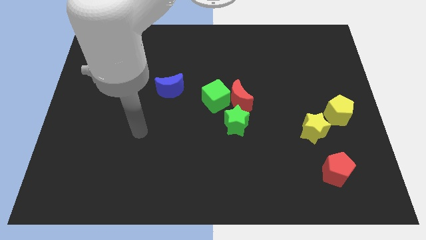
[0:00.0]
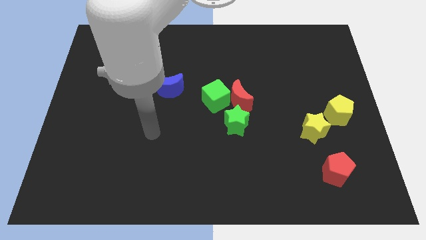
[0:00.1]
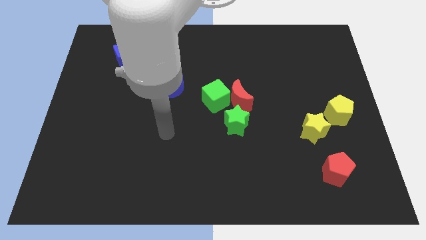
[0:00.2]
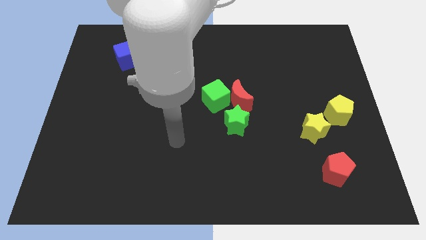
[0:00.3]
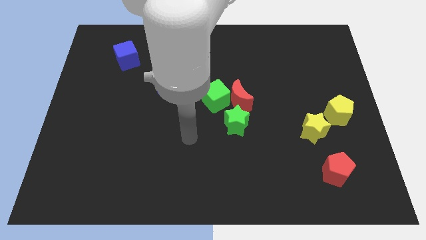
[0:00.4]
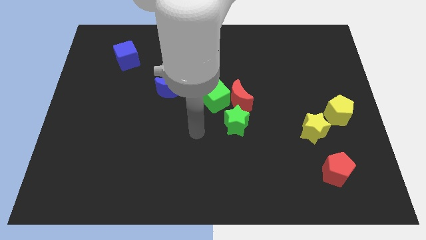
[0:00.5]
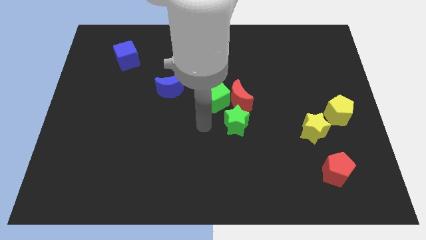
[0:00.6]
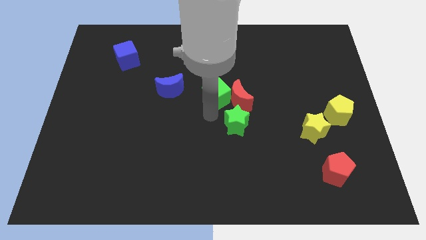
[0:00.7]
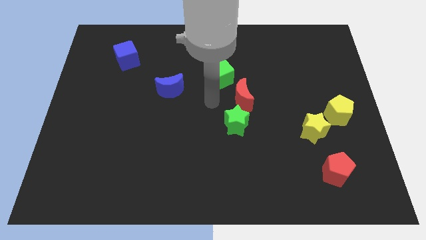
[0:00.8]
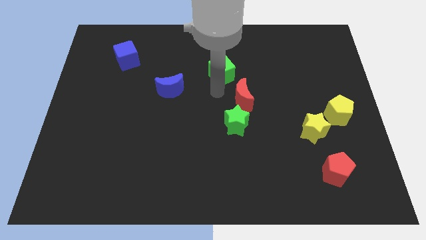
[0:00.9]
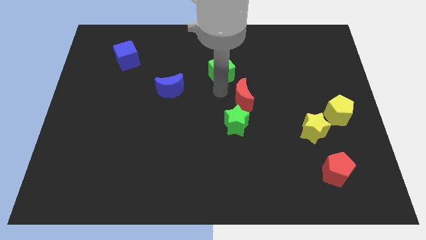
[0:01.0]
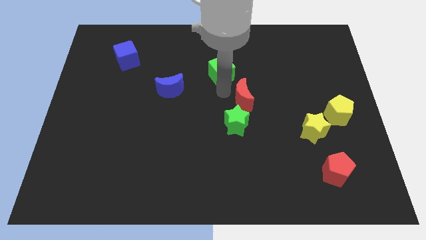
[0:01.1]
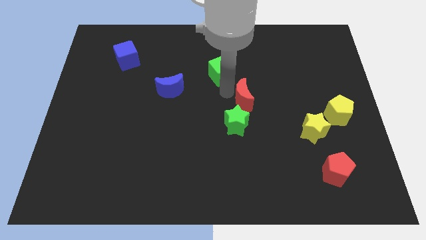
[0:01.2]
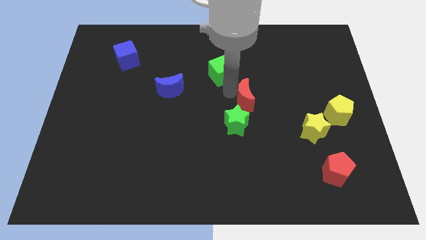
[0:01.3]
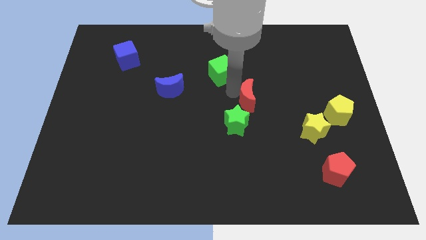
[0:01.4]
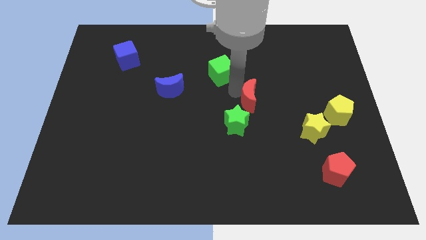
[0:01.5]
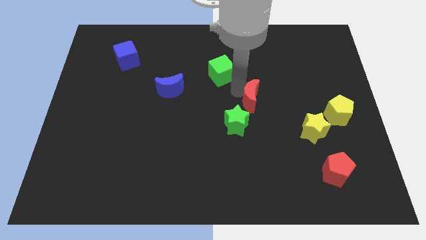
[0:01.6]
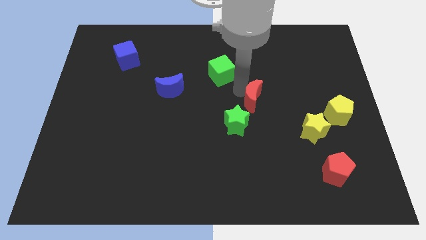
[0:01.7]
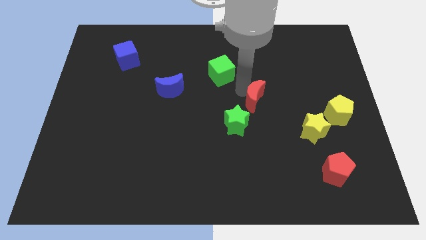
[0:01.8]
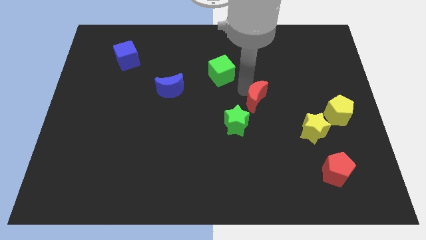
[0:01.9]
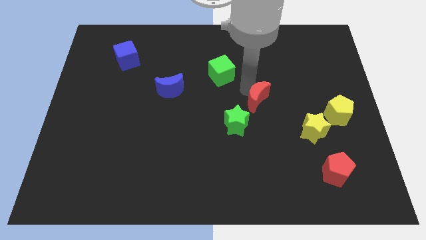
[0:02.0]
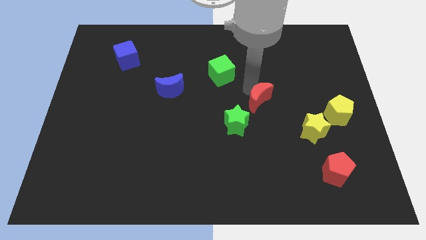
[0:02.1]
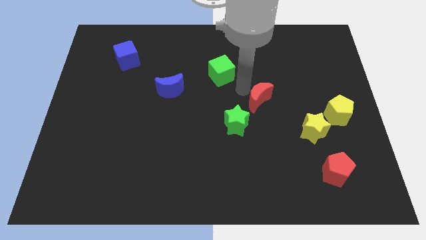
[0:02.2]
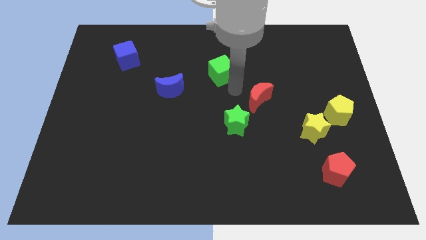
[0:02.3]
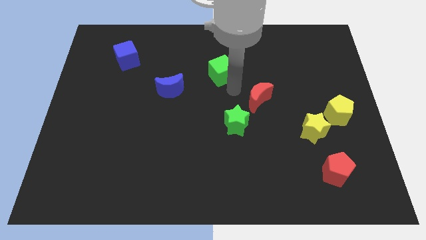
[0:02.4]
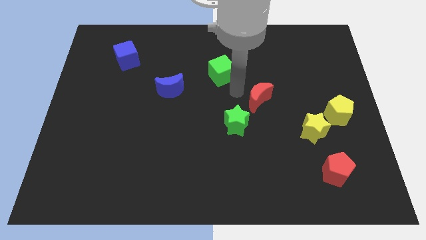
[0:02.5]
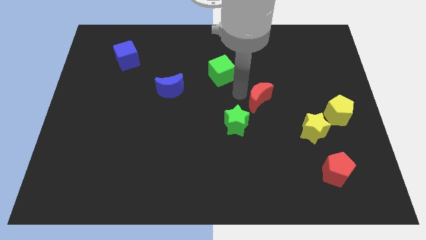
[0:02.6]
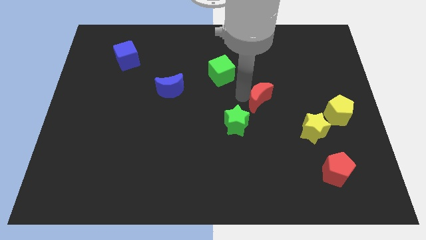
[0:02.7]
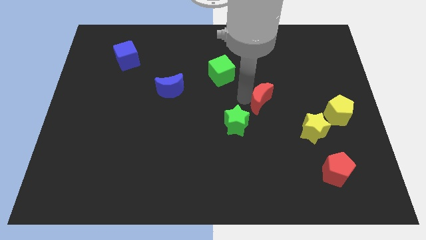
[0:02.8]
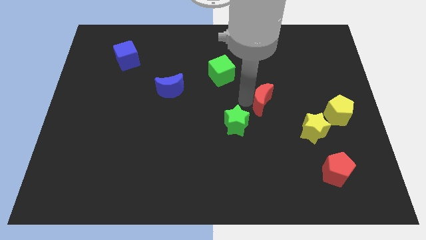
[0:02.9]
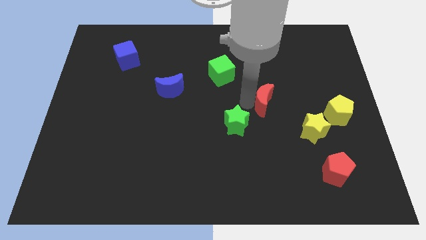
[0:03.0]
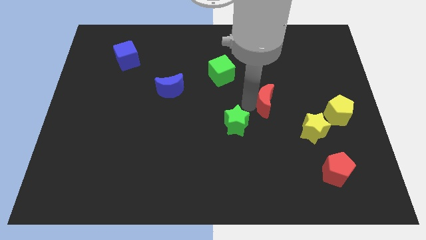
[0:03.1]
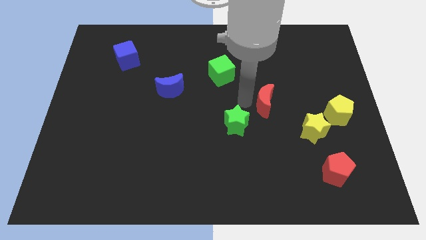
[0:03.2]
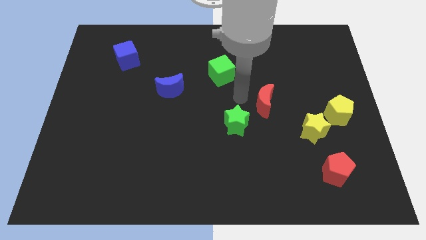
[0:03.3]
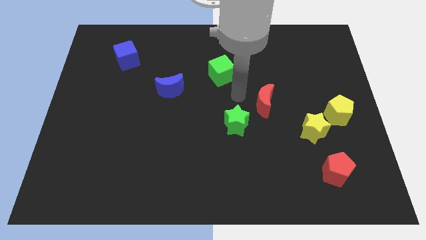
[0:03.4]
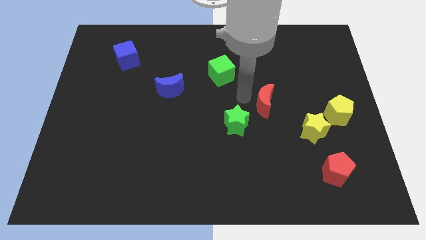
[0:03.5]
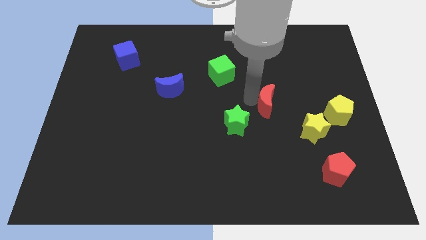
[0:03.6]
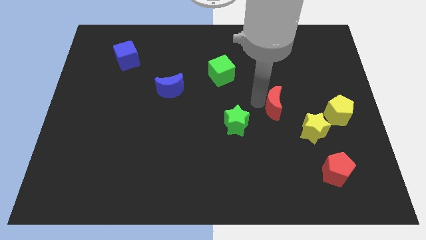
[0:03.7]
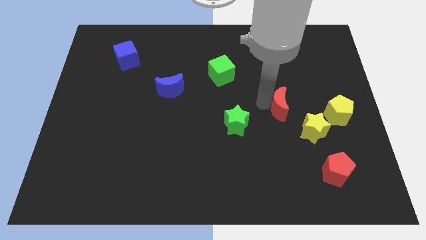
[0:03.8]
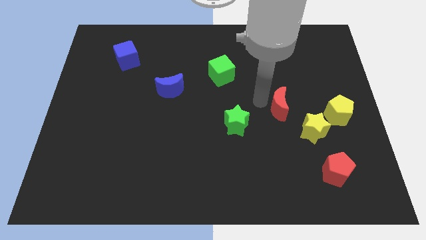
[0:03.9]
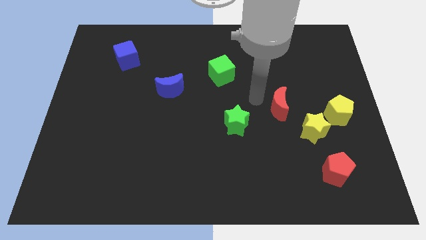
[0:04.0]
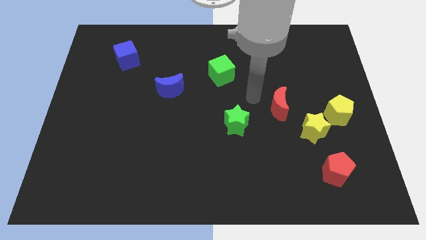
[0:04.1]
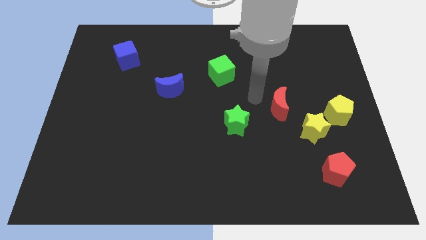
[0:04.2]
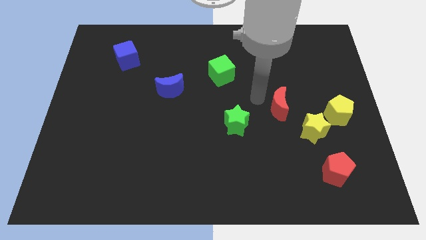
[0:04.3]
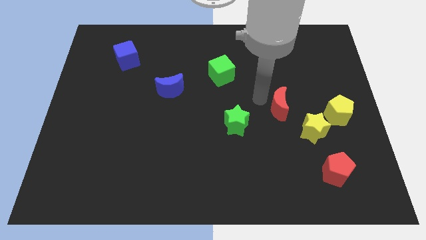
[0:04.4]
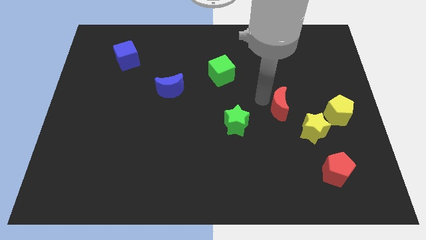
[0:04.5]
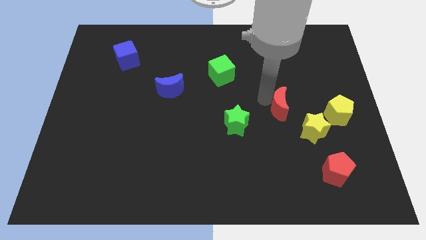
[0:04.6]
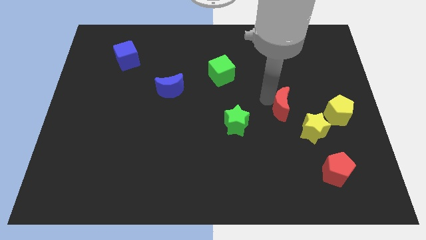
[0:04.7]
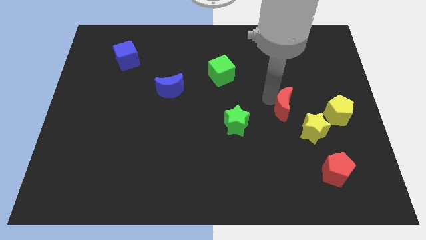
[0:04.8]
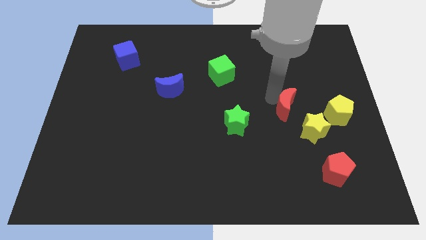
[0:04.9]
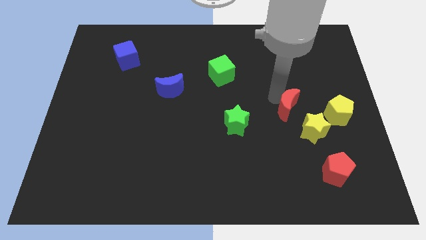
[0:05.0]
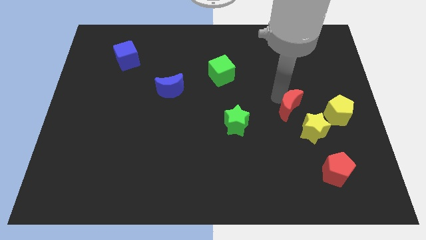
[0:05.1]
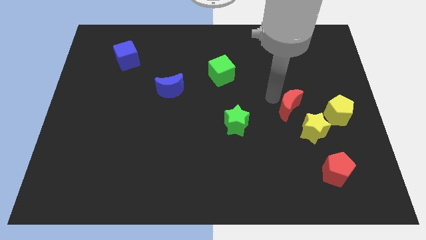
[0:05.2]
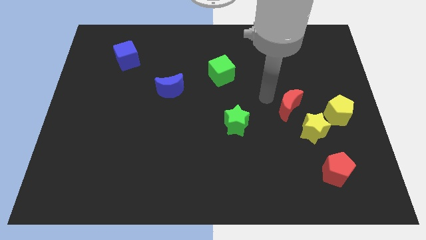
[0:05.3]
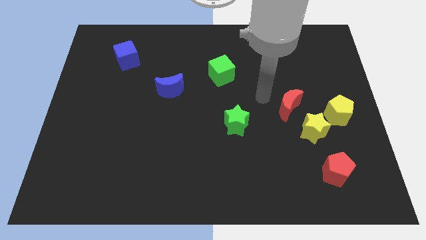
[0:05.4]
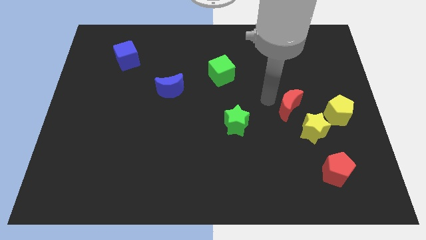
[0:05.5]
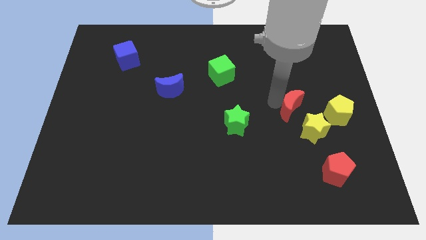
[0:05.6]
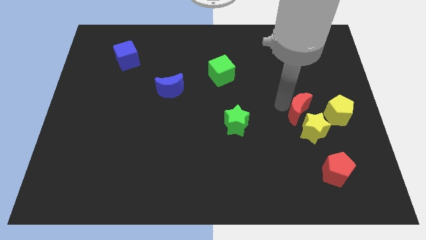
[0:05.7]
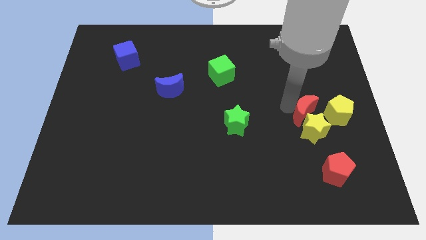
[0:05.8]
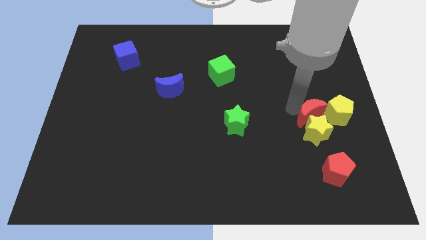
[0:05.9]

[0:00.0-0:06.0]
move the red moon to the top of the red pentagon
